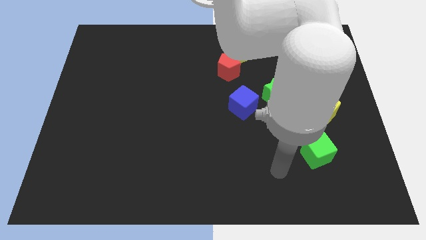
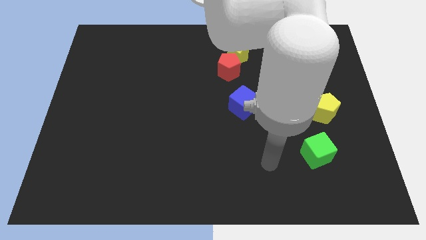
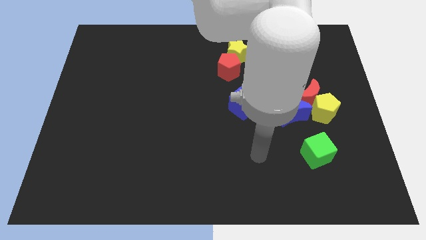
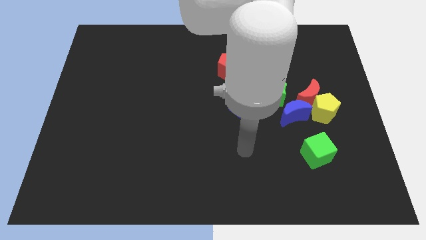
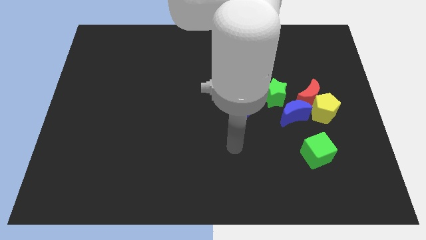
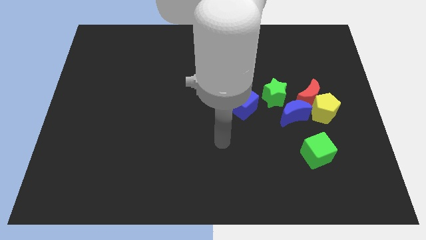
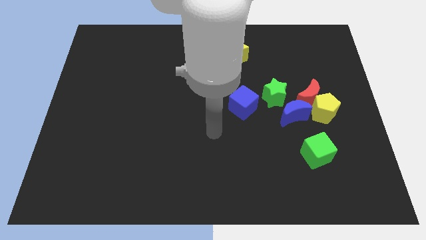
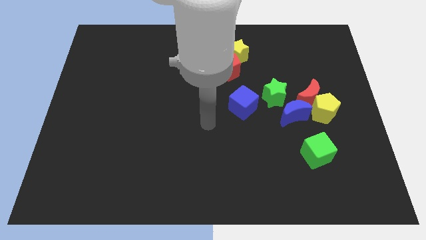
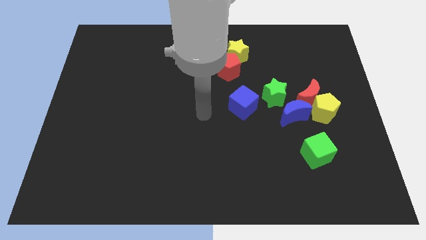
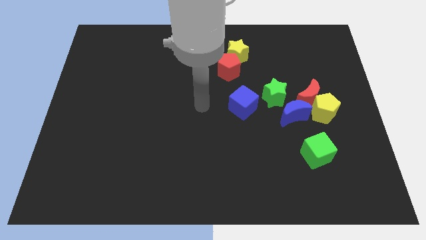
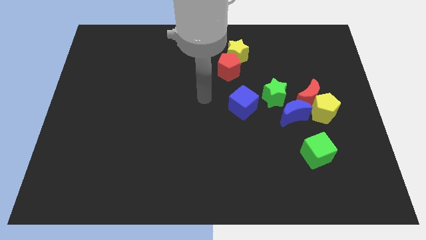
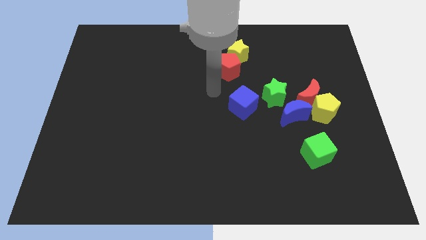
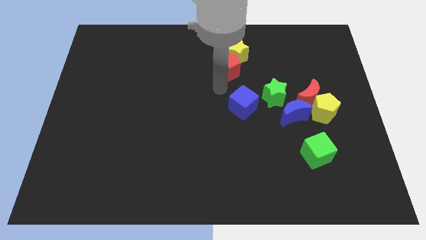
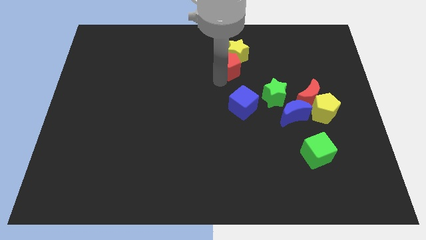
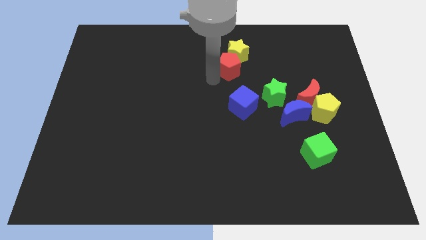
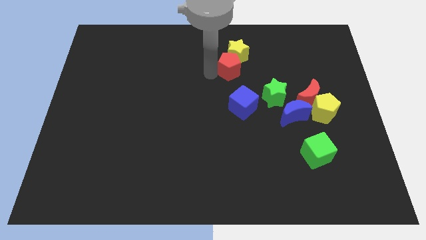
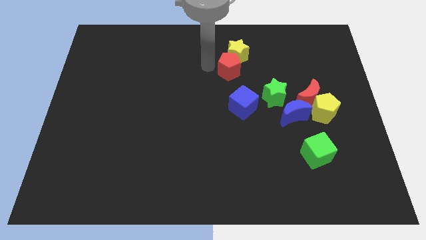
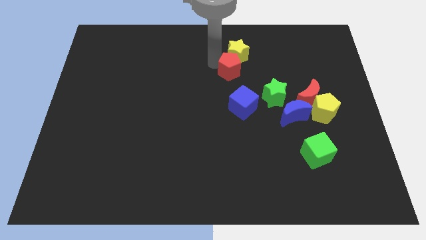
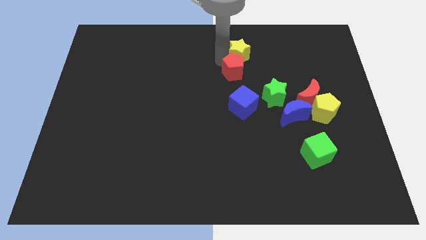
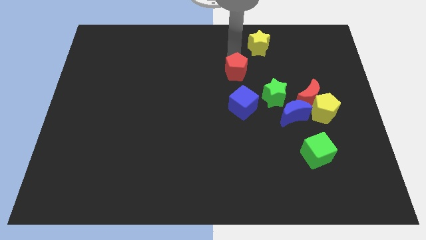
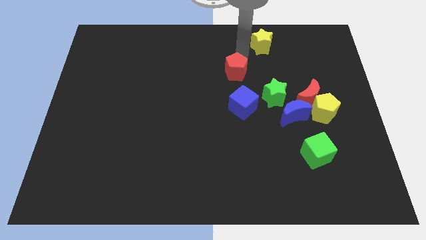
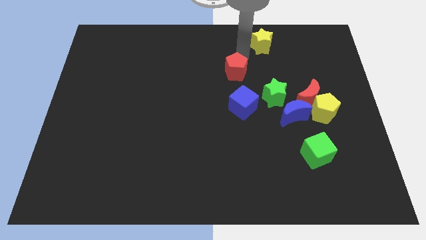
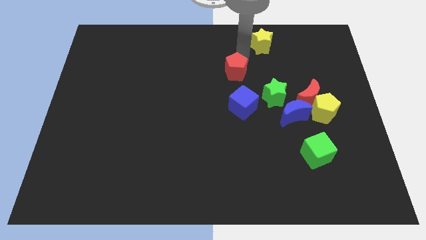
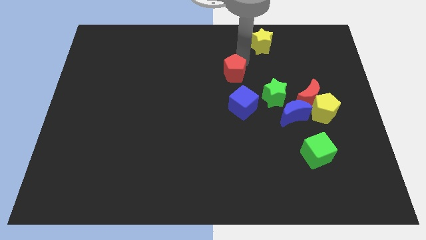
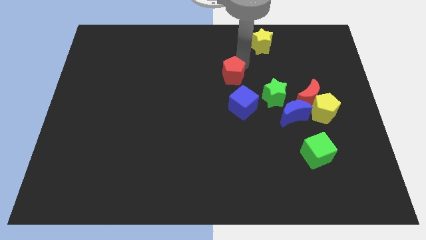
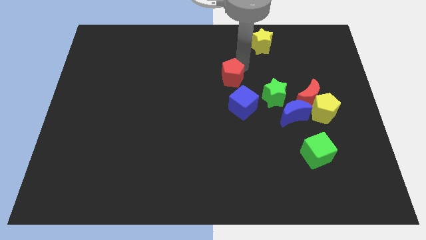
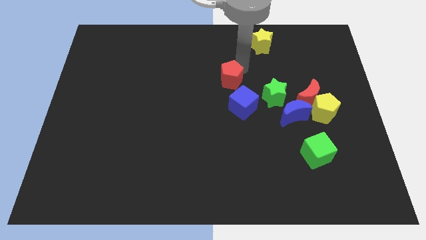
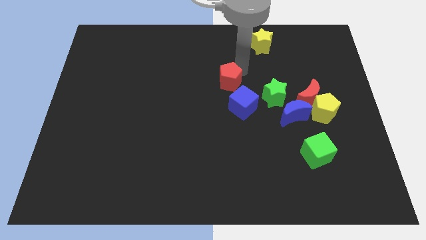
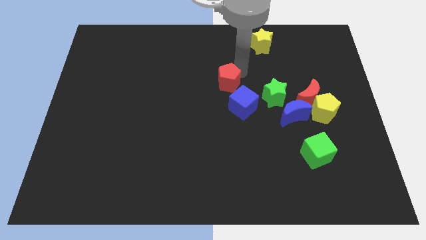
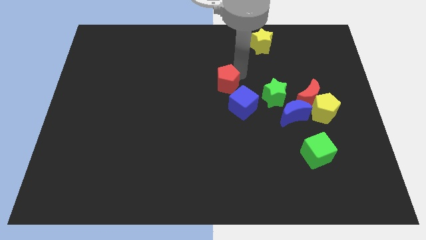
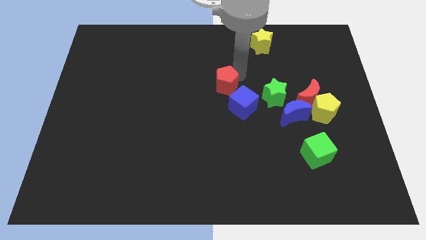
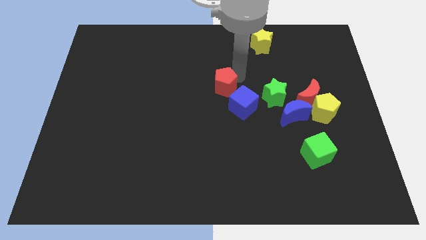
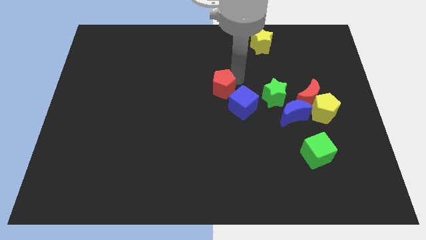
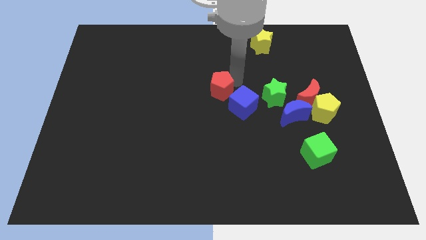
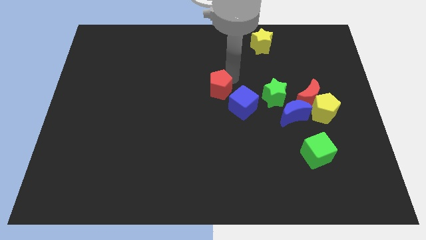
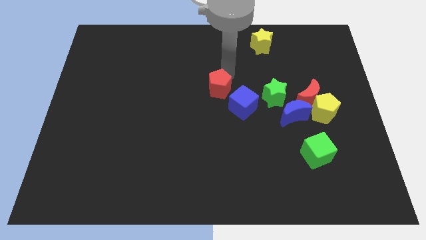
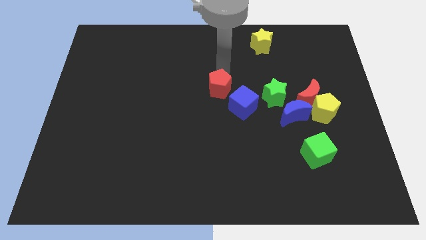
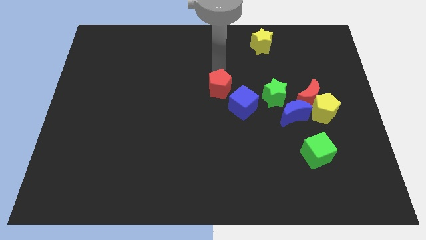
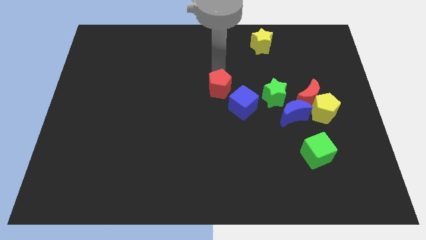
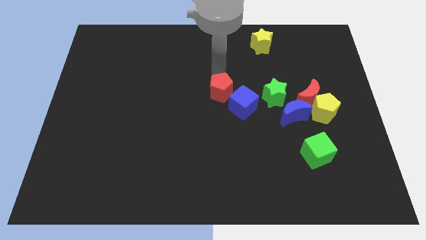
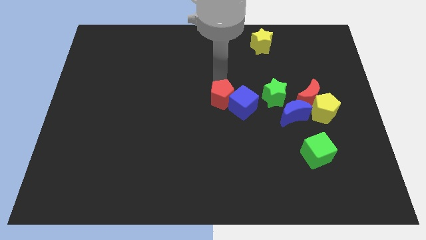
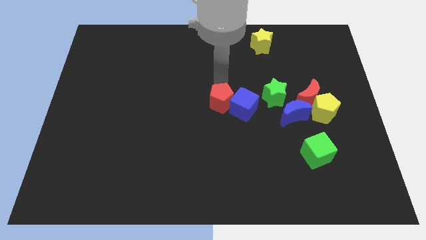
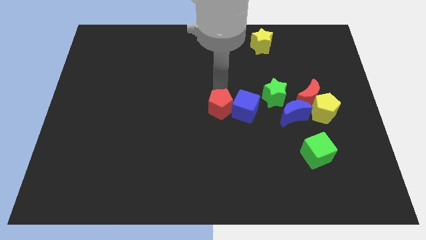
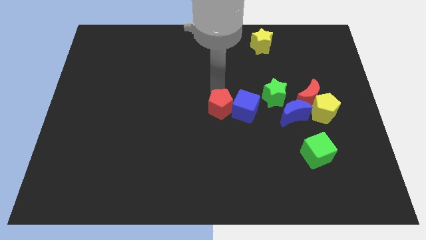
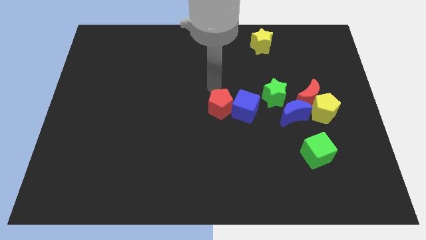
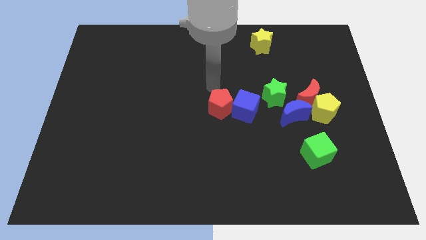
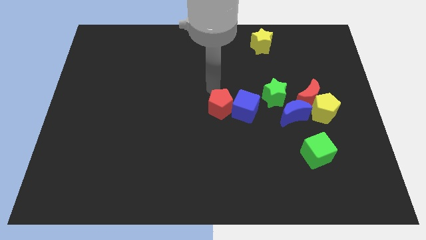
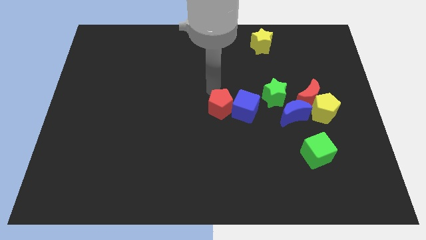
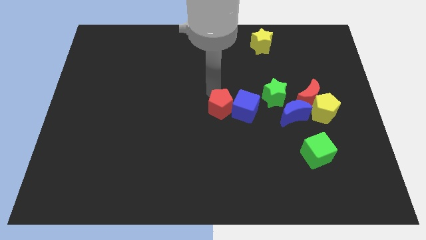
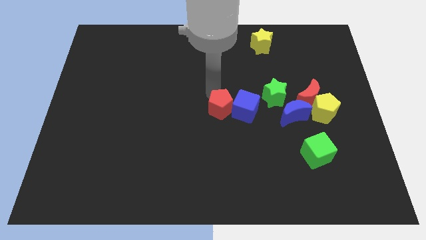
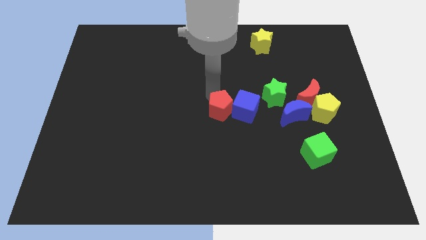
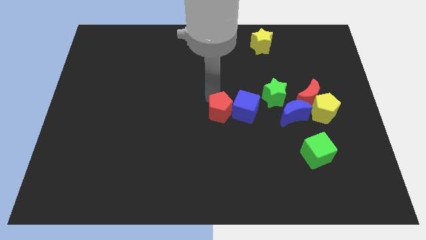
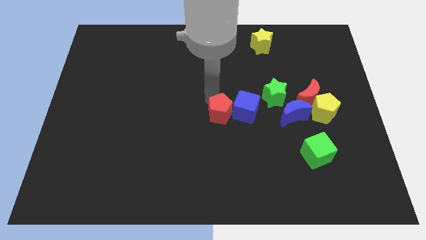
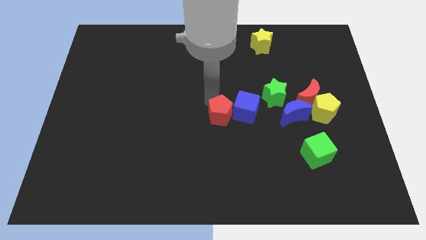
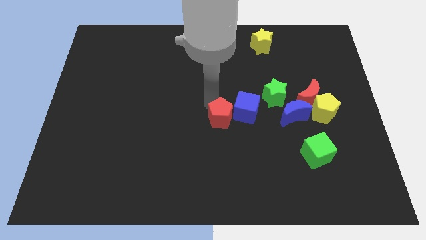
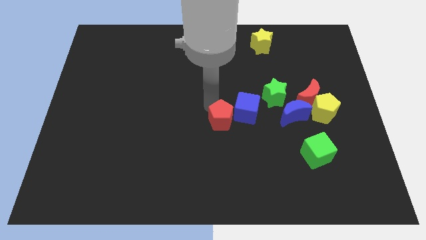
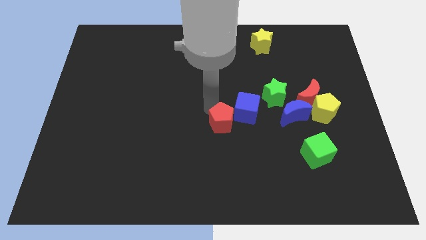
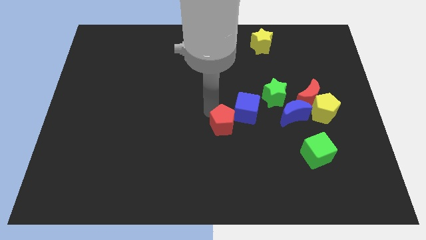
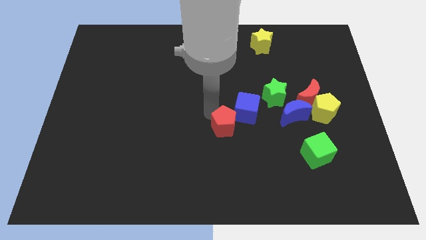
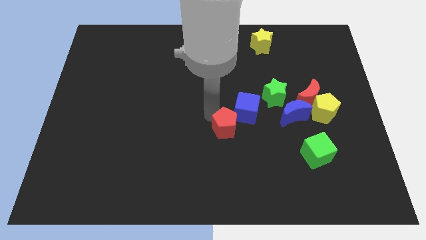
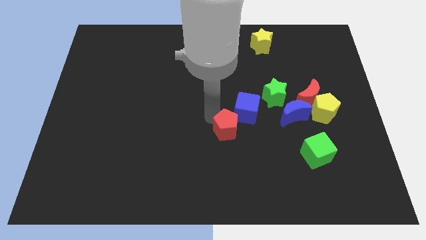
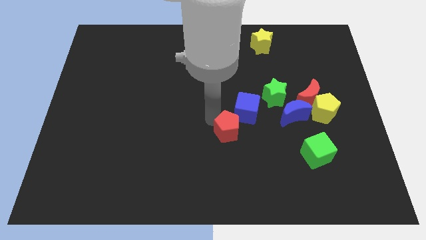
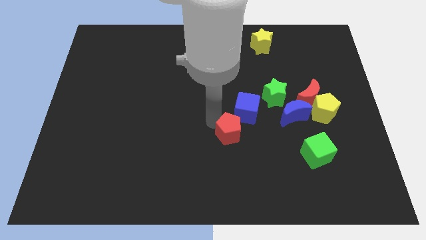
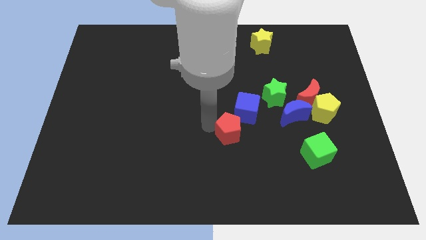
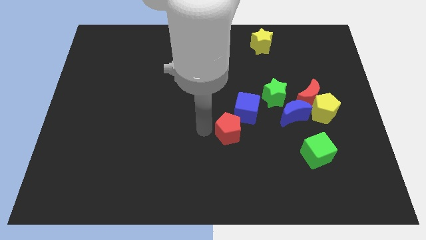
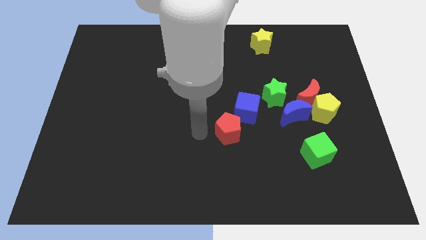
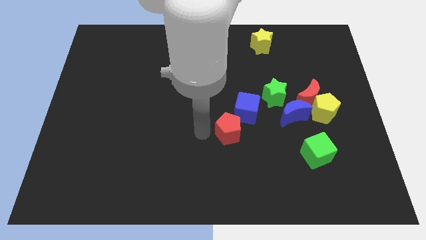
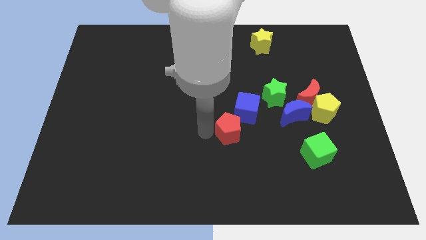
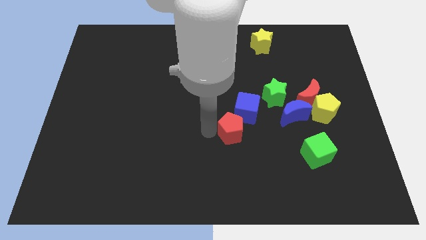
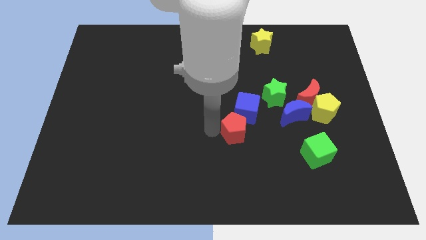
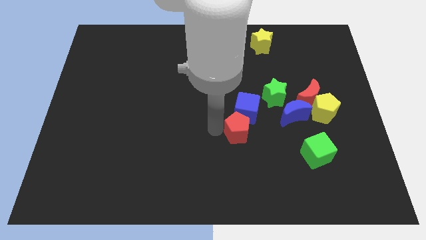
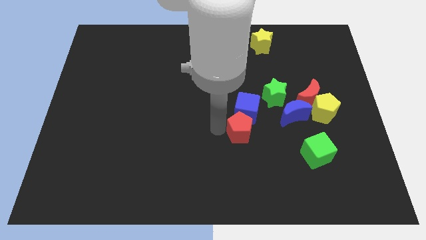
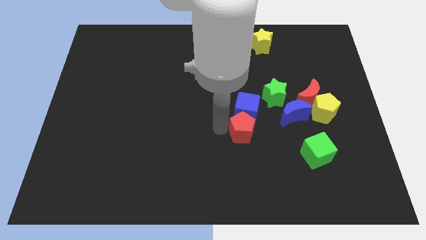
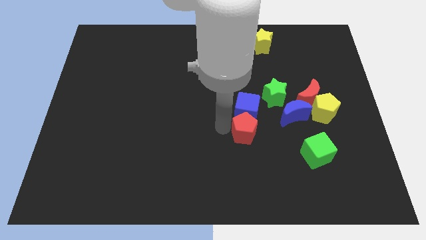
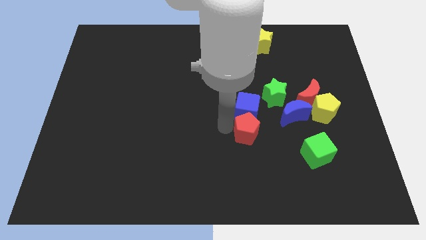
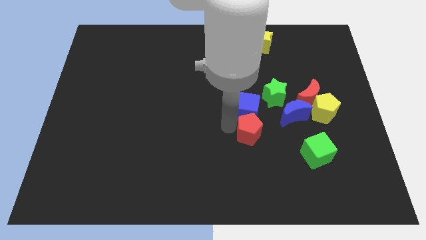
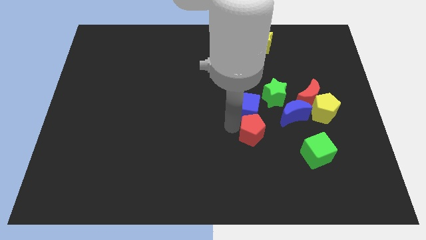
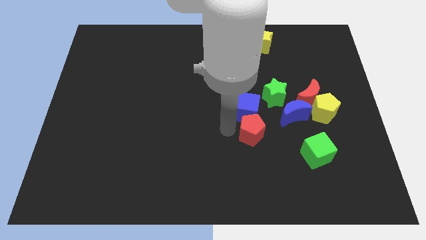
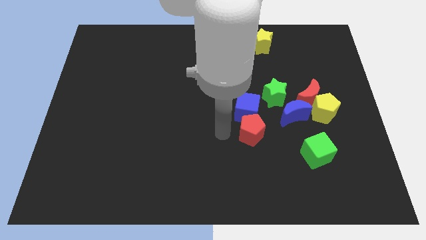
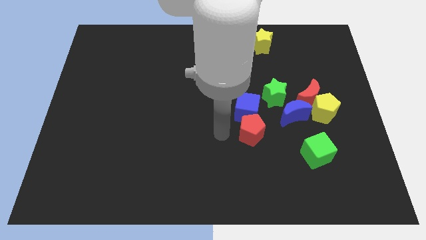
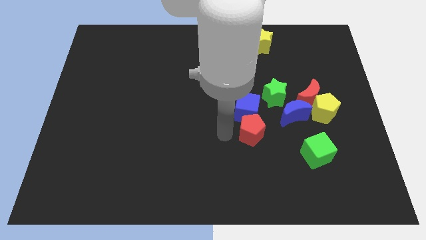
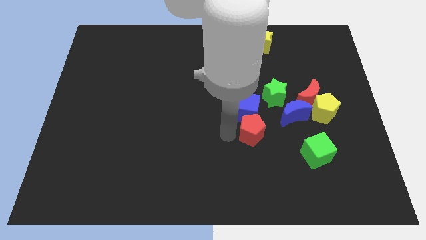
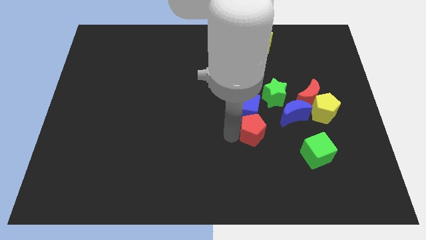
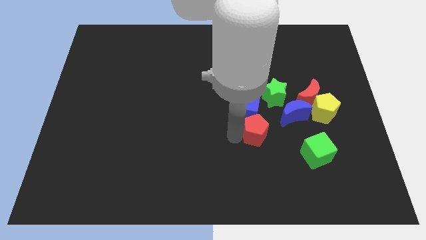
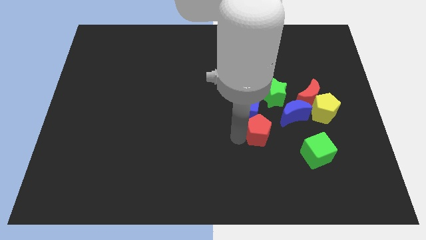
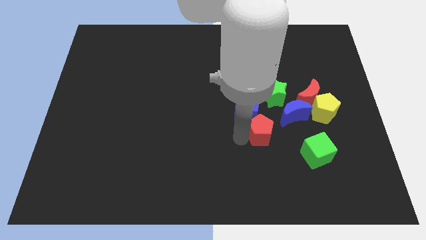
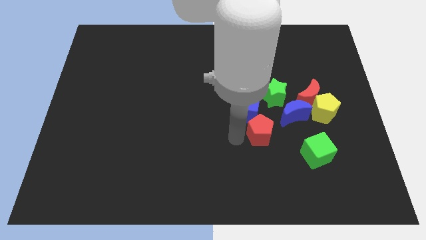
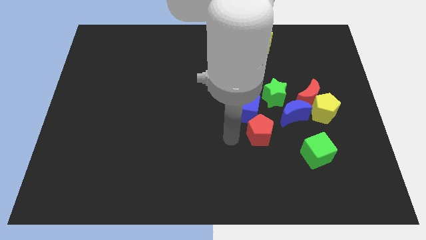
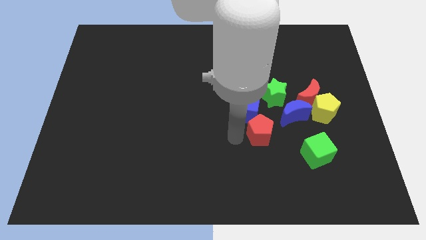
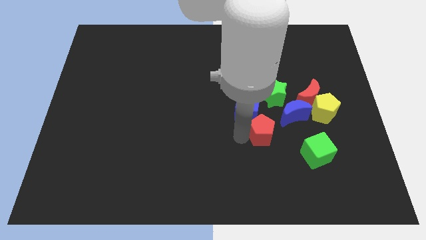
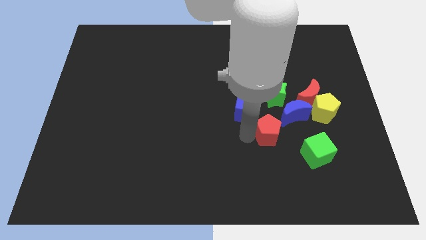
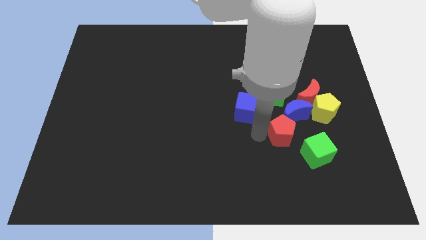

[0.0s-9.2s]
slide the red pentagon diagonally down and right
